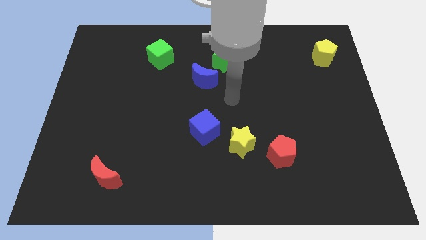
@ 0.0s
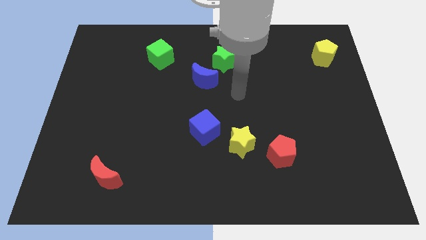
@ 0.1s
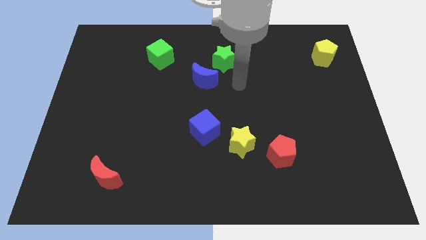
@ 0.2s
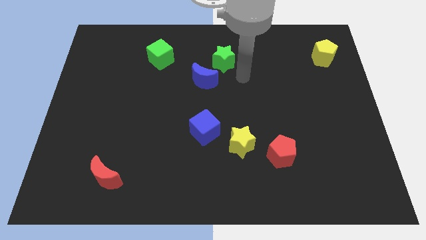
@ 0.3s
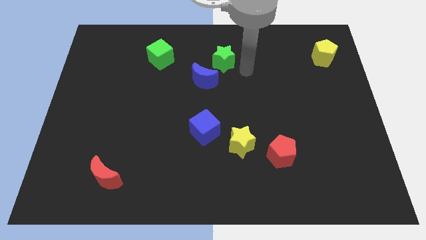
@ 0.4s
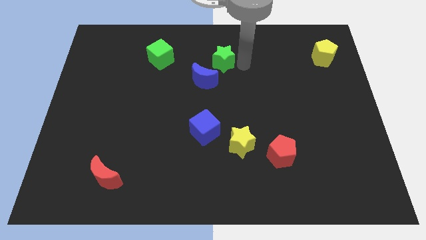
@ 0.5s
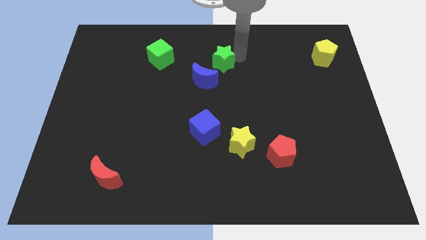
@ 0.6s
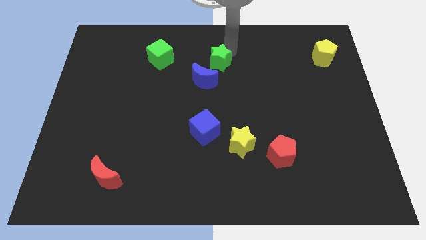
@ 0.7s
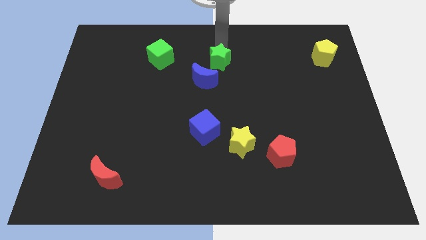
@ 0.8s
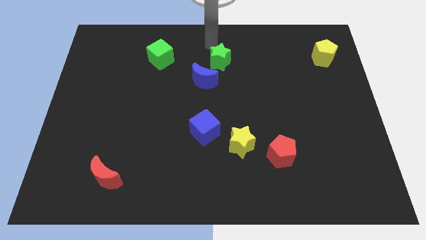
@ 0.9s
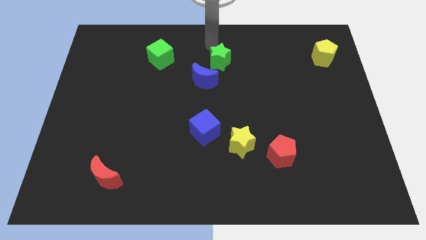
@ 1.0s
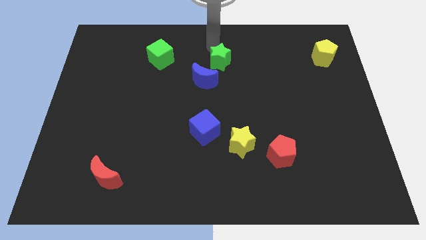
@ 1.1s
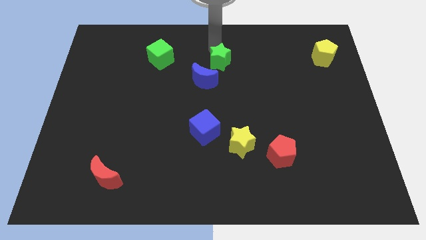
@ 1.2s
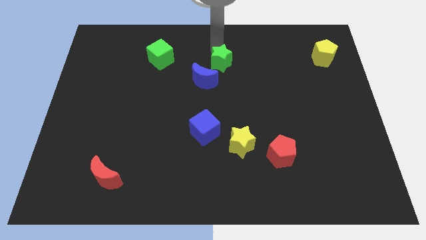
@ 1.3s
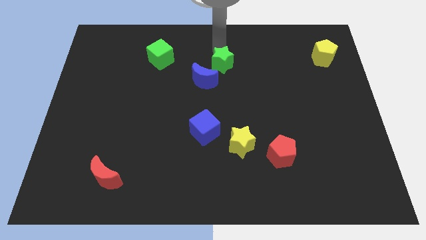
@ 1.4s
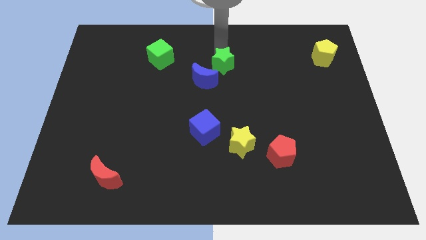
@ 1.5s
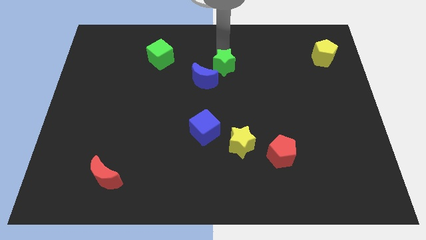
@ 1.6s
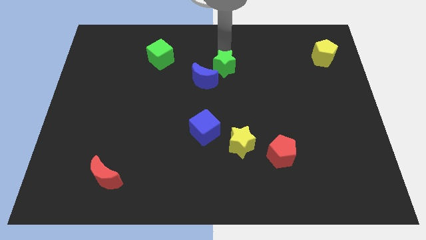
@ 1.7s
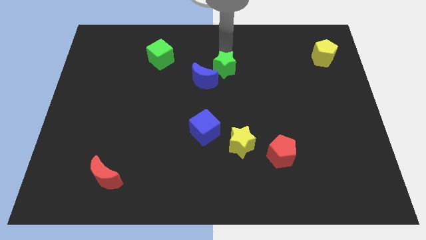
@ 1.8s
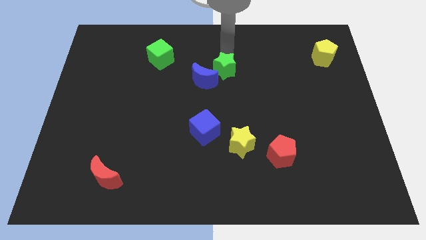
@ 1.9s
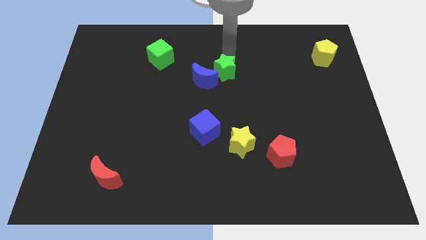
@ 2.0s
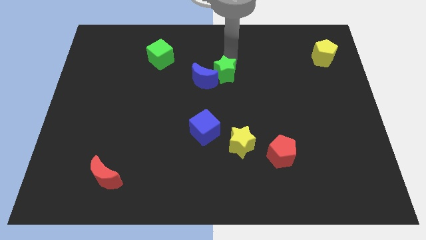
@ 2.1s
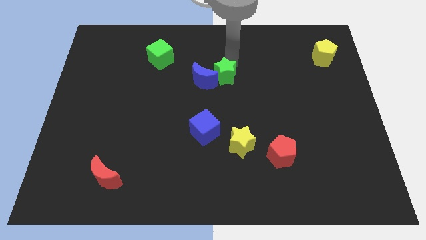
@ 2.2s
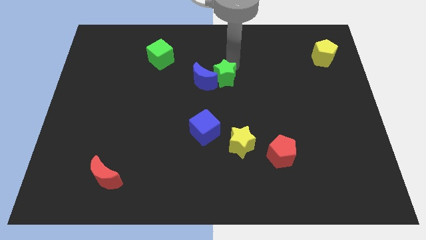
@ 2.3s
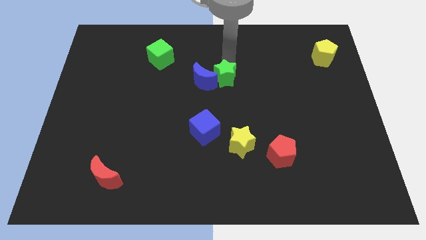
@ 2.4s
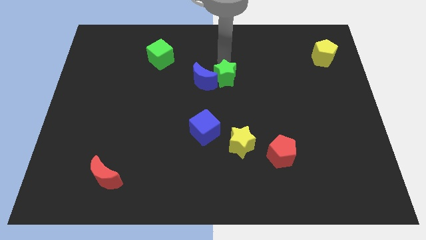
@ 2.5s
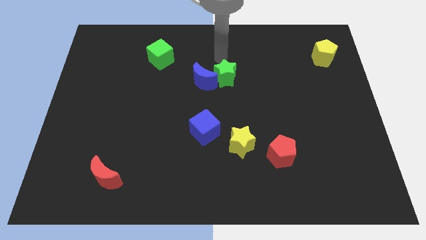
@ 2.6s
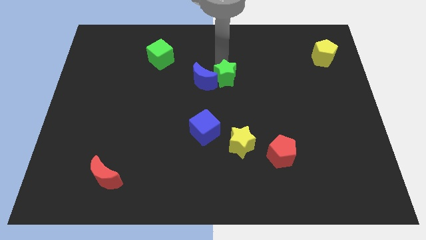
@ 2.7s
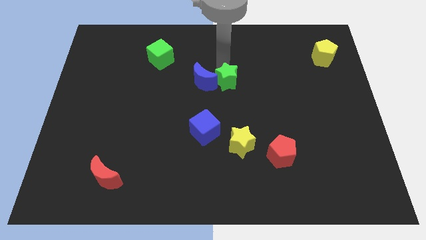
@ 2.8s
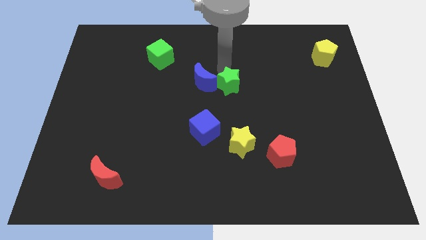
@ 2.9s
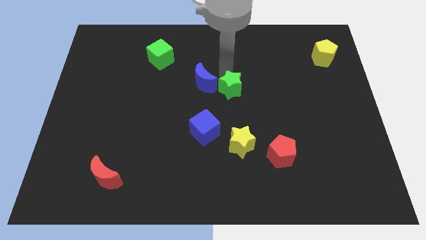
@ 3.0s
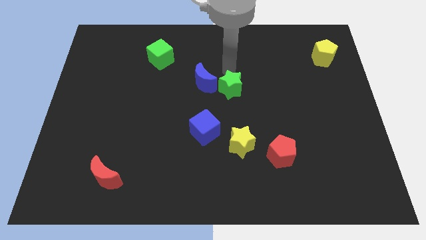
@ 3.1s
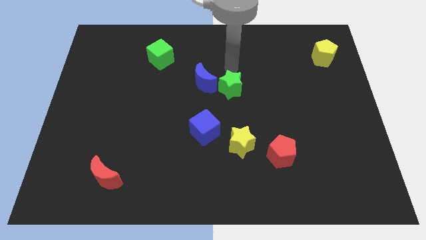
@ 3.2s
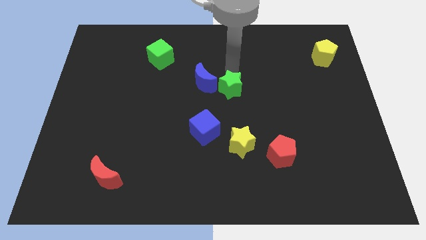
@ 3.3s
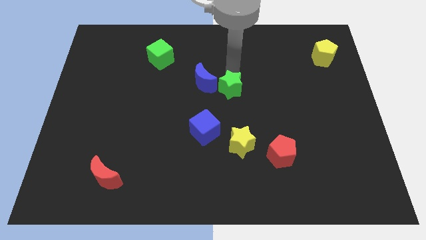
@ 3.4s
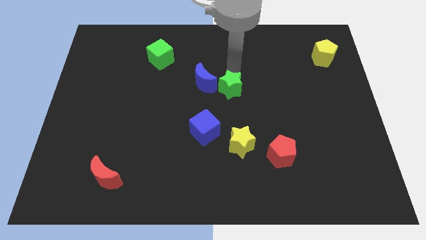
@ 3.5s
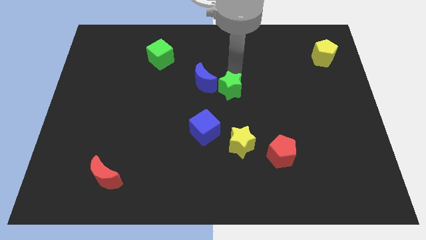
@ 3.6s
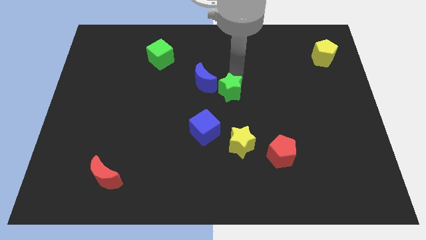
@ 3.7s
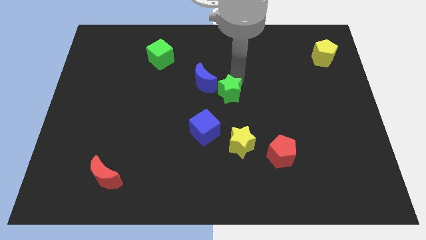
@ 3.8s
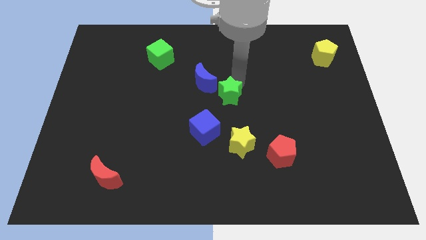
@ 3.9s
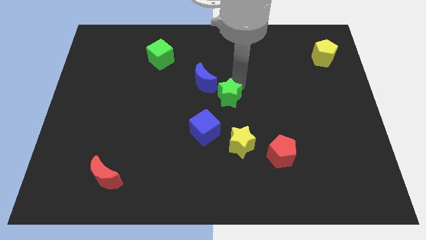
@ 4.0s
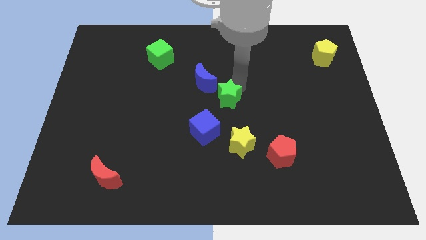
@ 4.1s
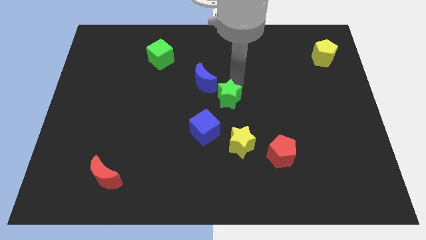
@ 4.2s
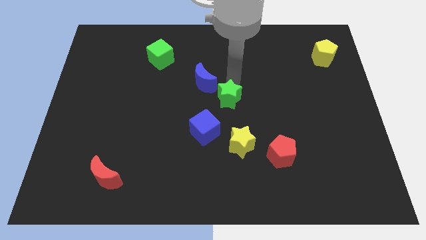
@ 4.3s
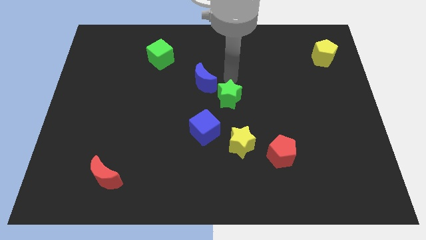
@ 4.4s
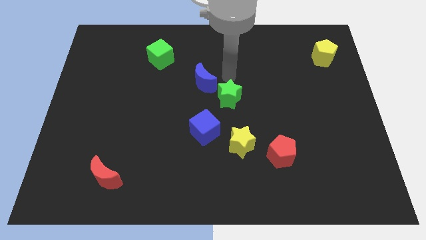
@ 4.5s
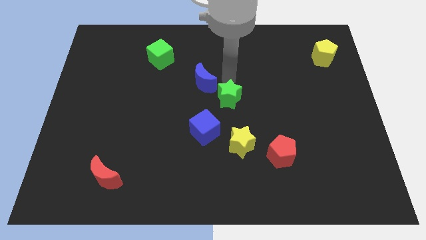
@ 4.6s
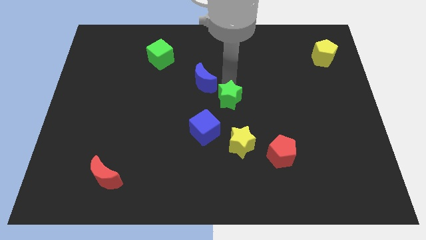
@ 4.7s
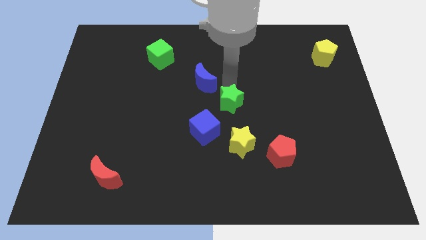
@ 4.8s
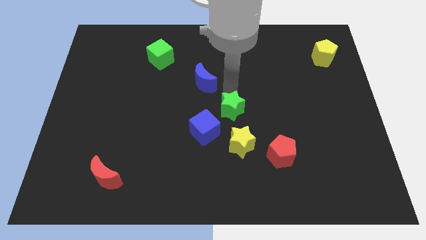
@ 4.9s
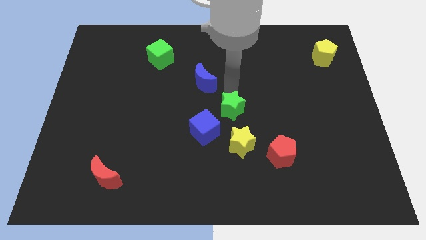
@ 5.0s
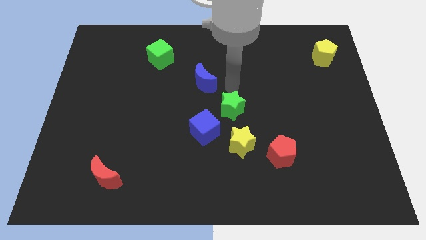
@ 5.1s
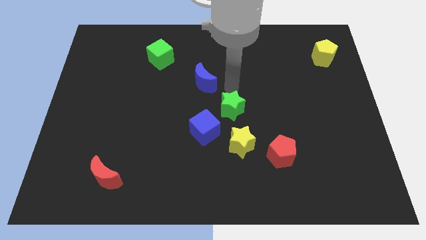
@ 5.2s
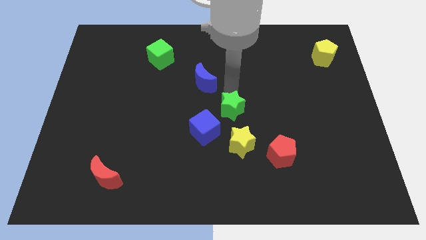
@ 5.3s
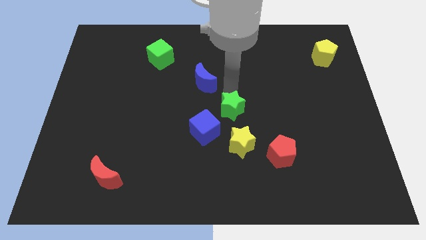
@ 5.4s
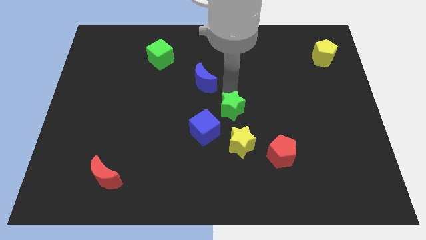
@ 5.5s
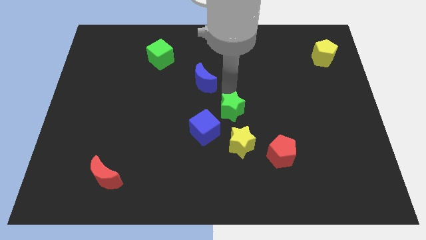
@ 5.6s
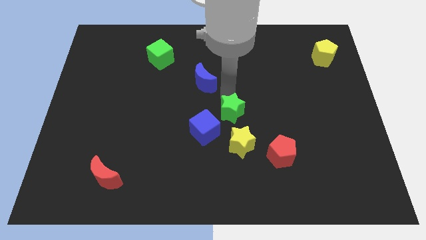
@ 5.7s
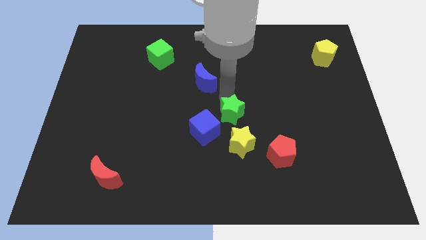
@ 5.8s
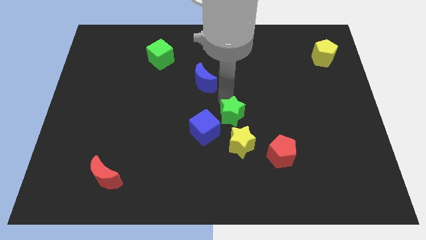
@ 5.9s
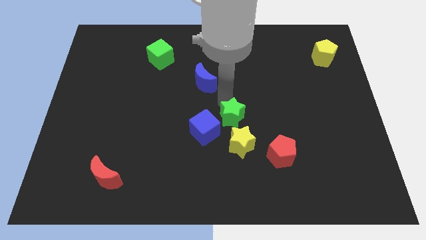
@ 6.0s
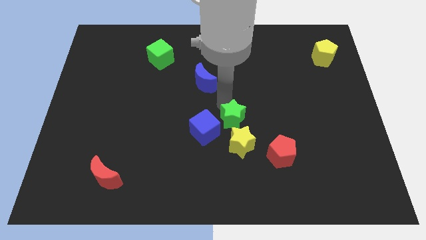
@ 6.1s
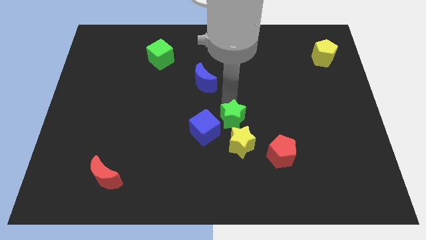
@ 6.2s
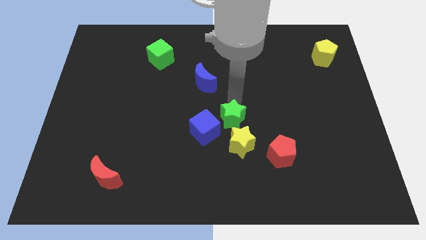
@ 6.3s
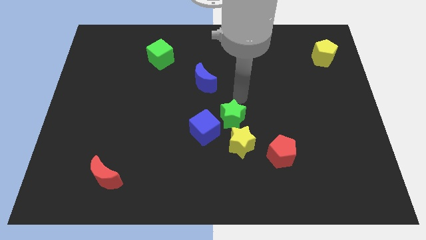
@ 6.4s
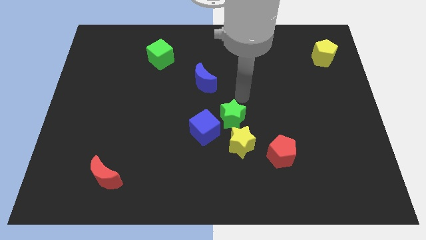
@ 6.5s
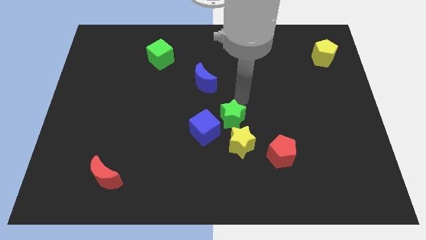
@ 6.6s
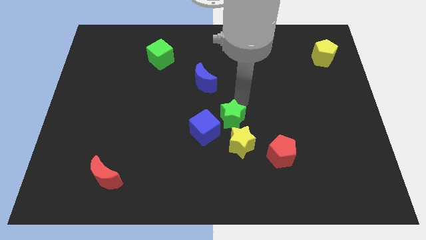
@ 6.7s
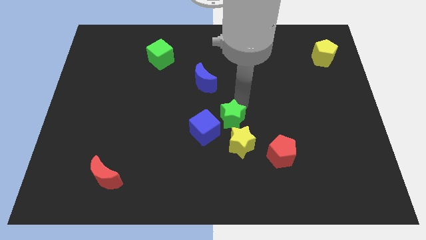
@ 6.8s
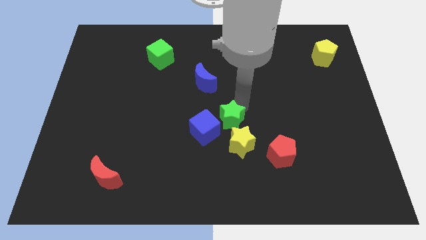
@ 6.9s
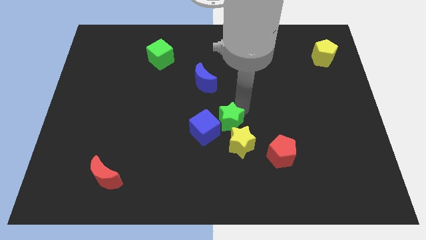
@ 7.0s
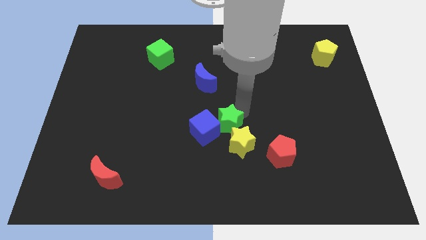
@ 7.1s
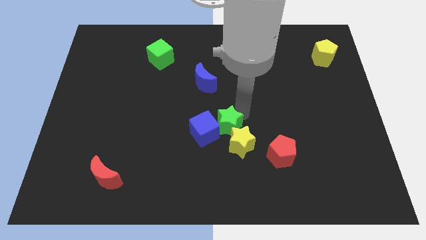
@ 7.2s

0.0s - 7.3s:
move the green star down

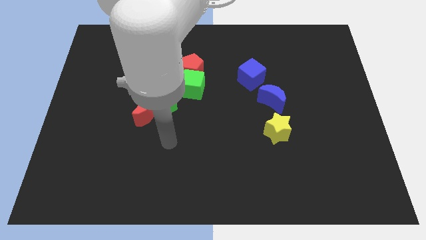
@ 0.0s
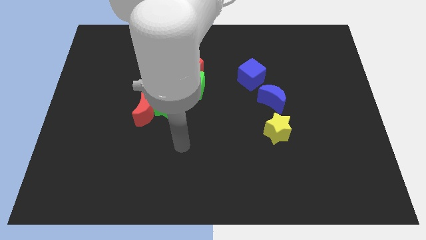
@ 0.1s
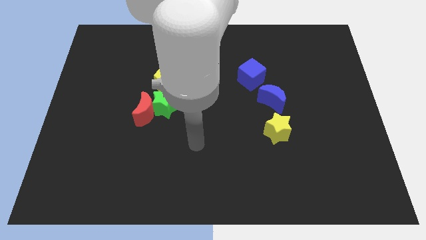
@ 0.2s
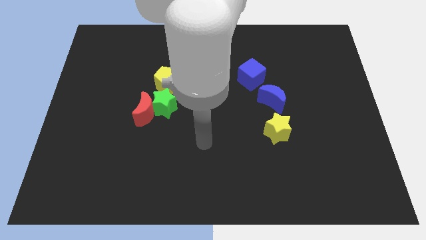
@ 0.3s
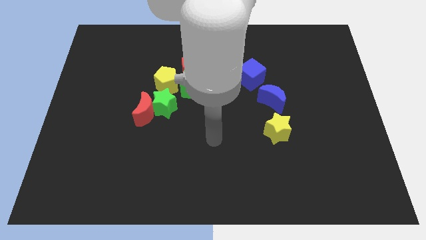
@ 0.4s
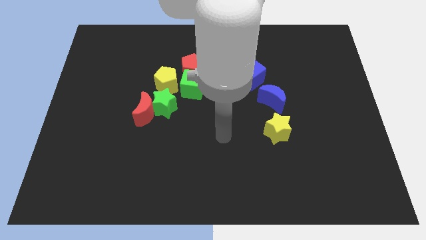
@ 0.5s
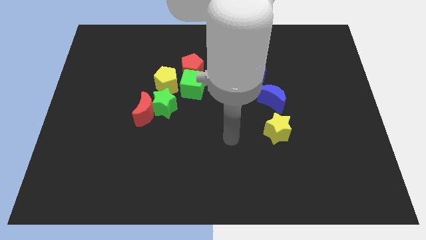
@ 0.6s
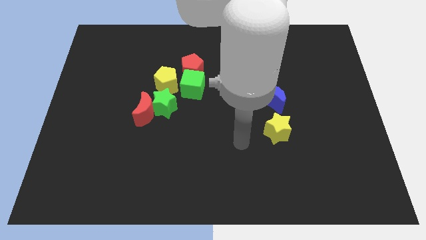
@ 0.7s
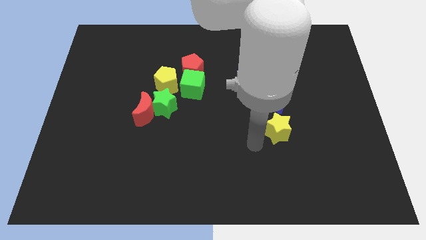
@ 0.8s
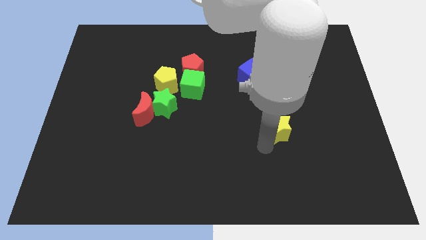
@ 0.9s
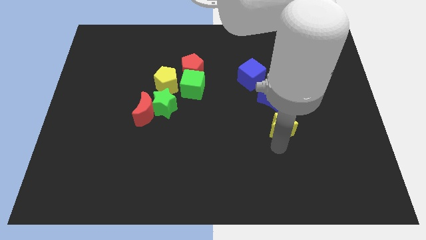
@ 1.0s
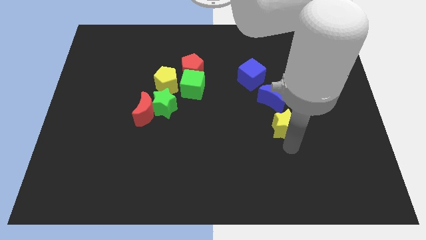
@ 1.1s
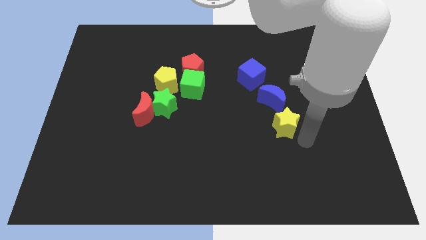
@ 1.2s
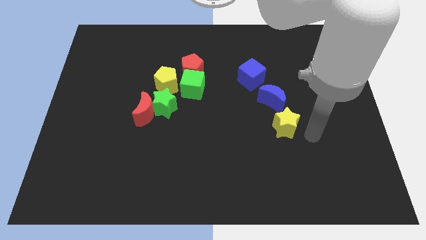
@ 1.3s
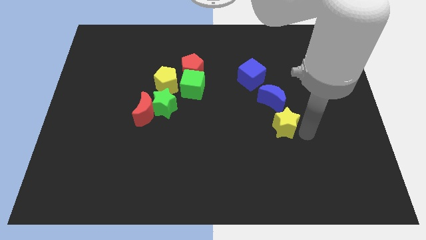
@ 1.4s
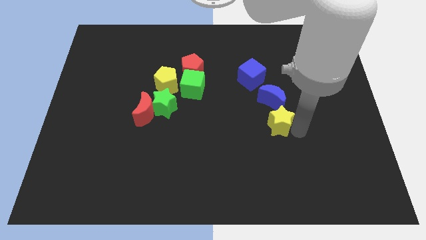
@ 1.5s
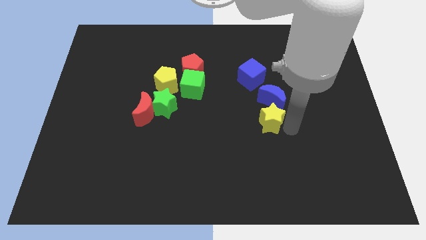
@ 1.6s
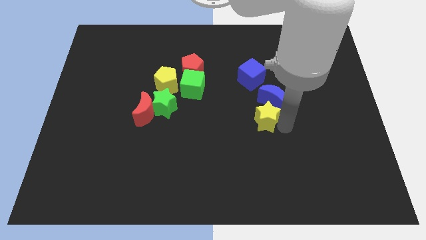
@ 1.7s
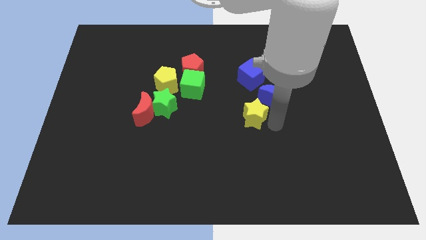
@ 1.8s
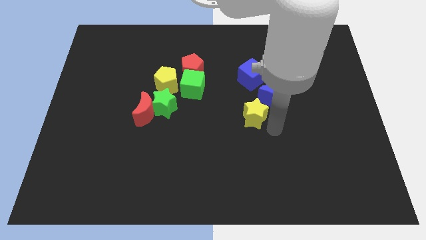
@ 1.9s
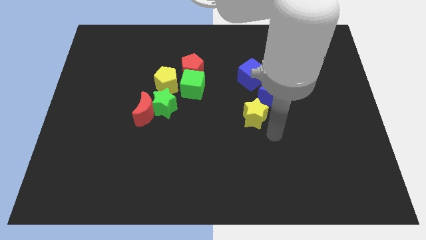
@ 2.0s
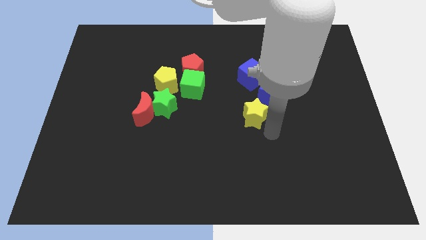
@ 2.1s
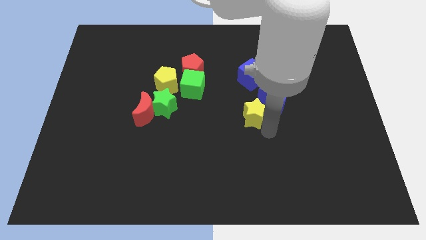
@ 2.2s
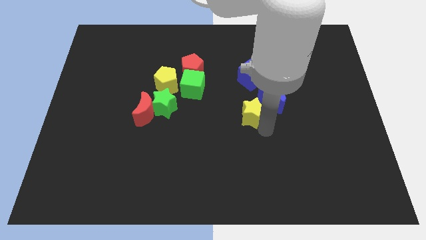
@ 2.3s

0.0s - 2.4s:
move the yellow star slightly upwards and left
